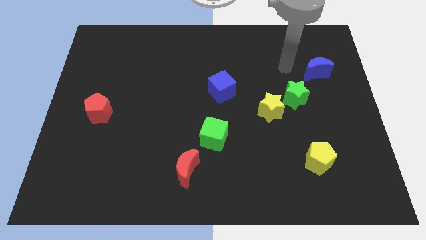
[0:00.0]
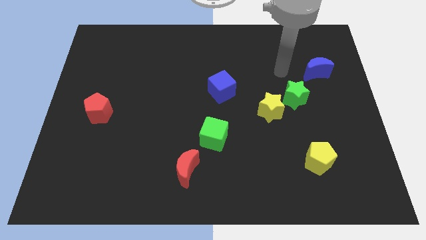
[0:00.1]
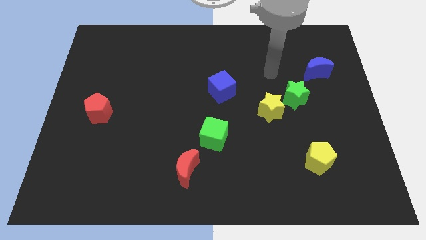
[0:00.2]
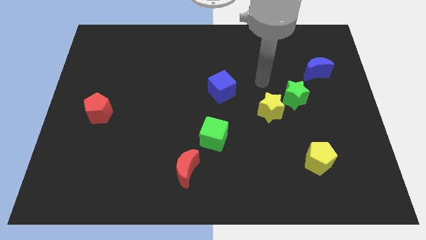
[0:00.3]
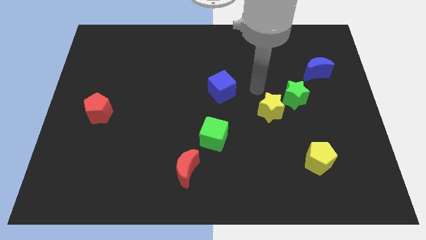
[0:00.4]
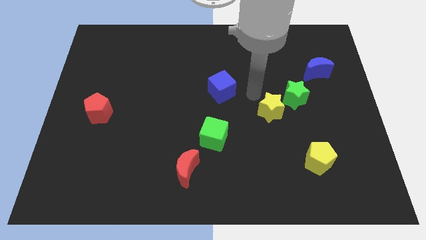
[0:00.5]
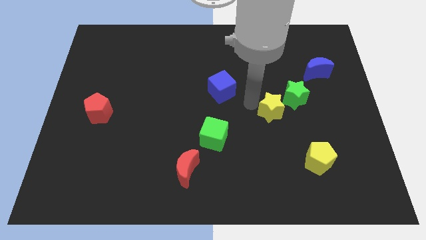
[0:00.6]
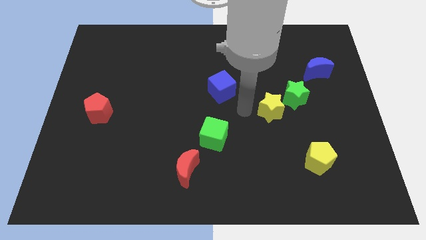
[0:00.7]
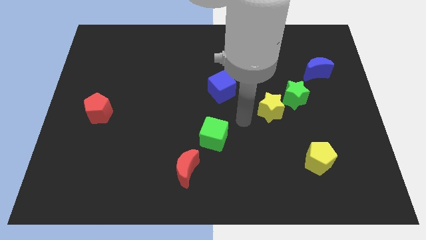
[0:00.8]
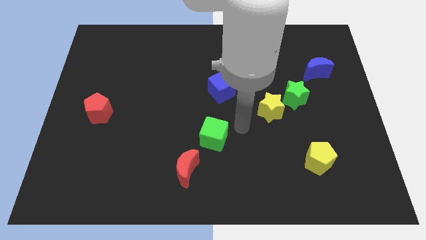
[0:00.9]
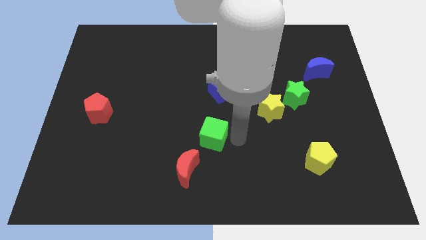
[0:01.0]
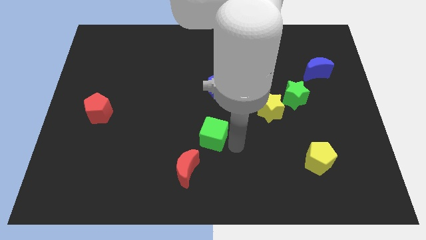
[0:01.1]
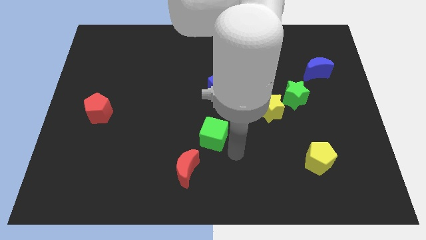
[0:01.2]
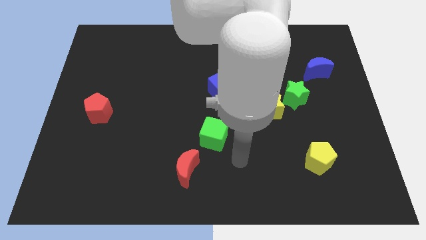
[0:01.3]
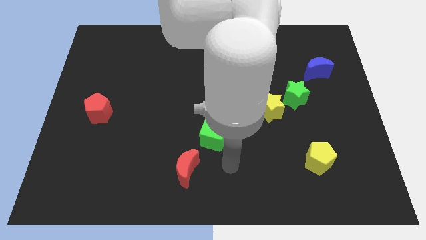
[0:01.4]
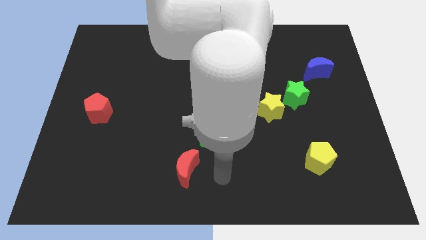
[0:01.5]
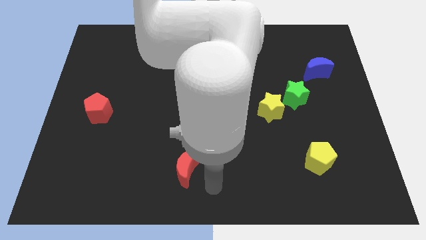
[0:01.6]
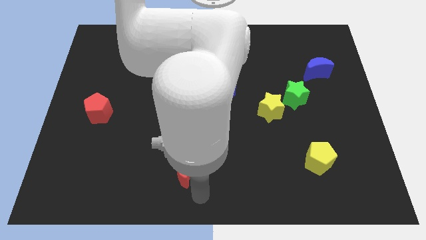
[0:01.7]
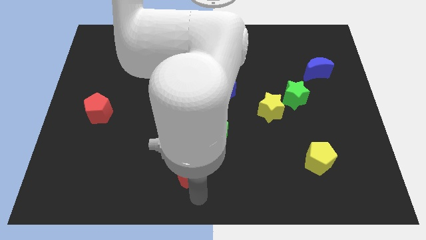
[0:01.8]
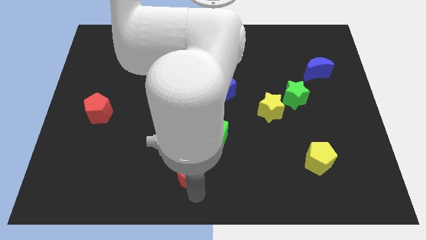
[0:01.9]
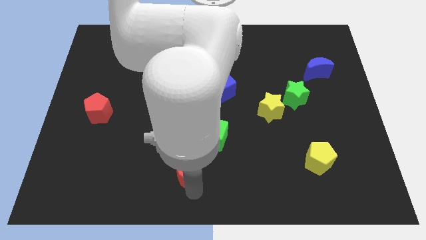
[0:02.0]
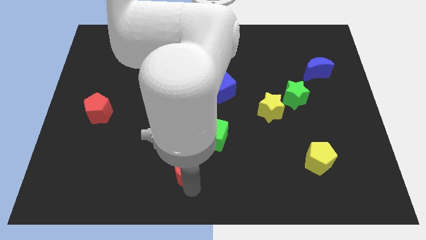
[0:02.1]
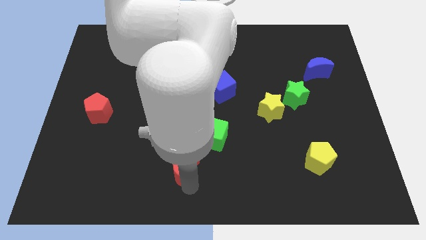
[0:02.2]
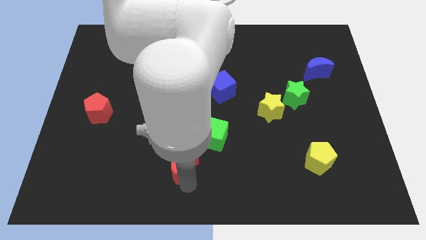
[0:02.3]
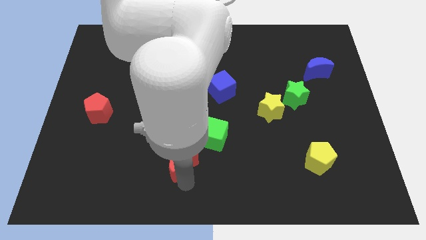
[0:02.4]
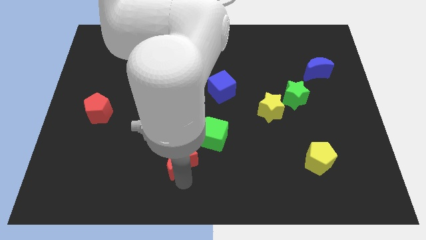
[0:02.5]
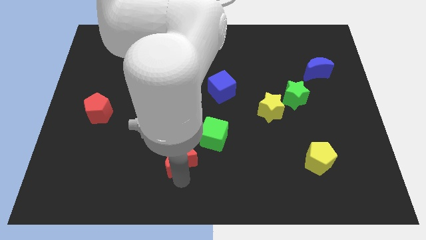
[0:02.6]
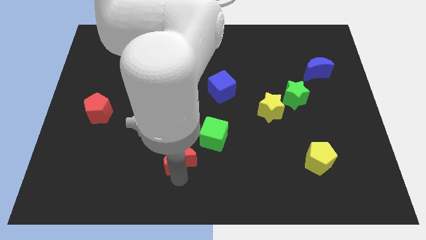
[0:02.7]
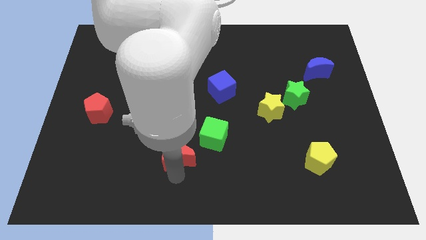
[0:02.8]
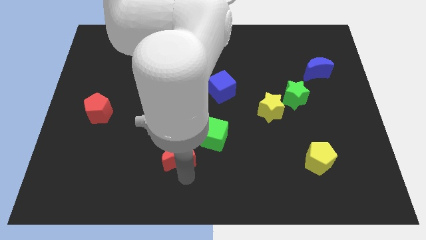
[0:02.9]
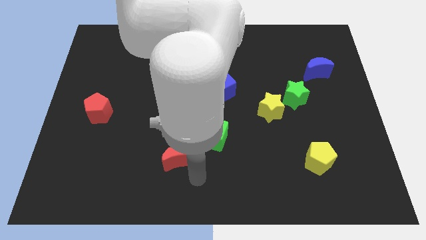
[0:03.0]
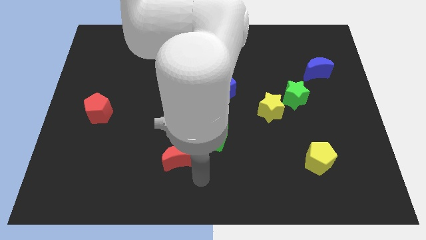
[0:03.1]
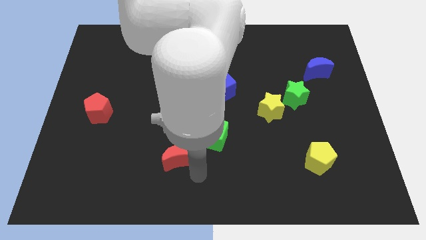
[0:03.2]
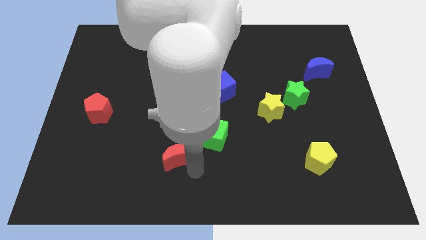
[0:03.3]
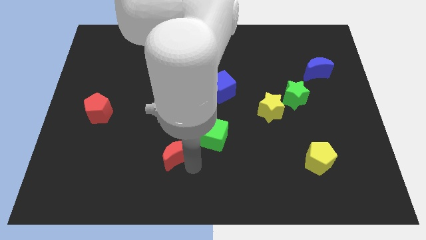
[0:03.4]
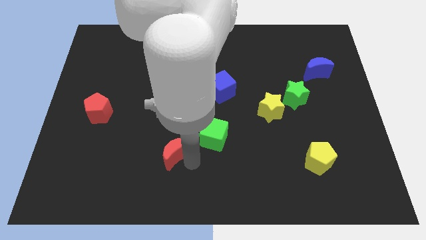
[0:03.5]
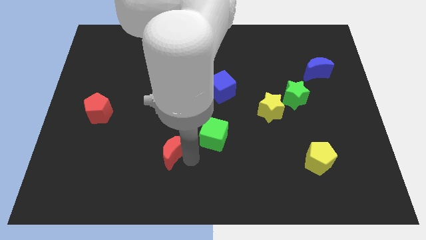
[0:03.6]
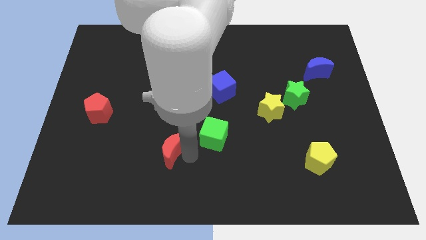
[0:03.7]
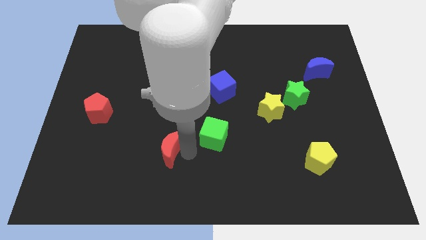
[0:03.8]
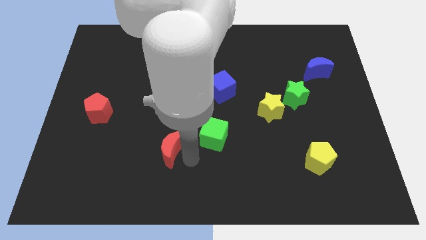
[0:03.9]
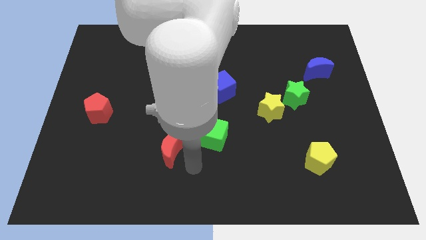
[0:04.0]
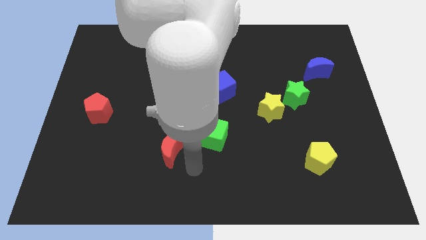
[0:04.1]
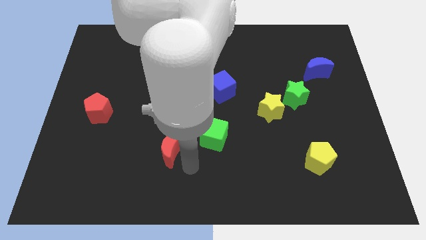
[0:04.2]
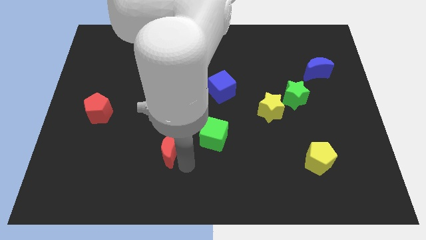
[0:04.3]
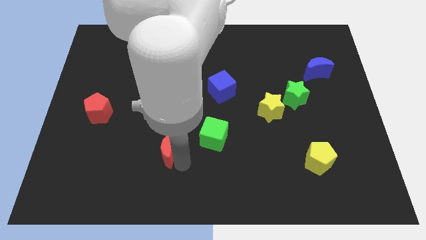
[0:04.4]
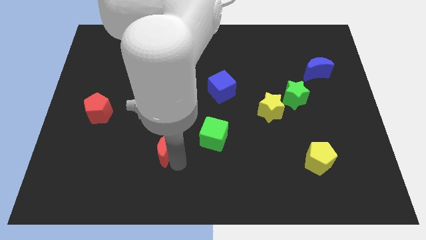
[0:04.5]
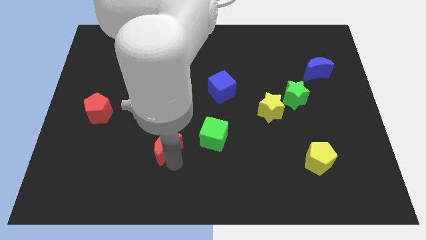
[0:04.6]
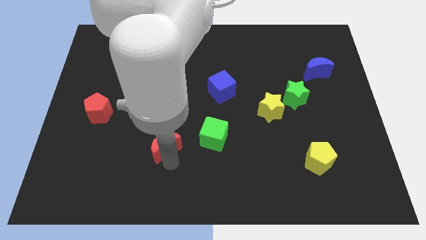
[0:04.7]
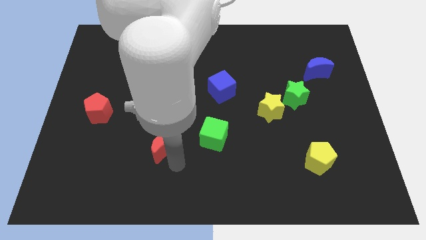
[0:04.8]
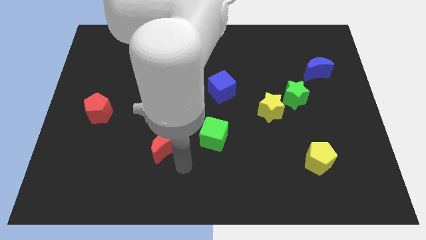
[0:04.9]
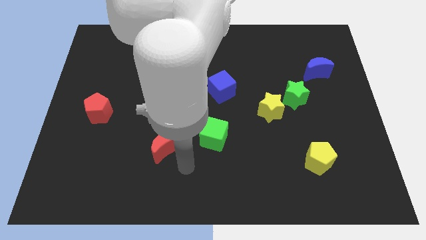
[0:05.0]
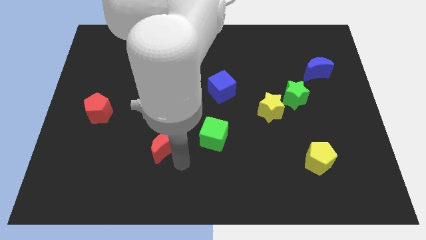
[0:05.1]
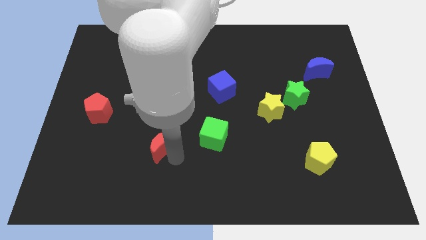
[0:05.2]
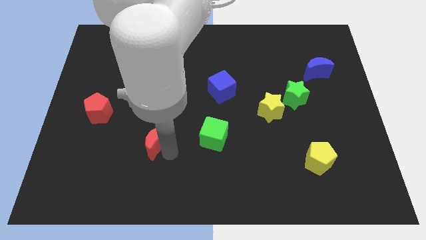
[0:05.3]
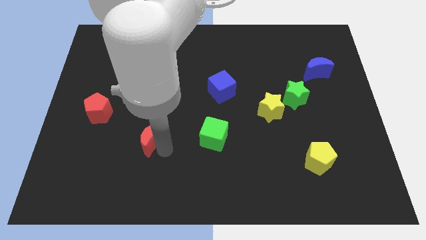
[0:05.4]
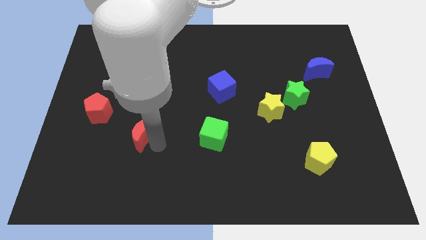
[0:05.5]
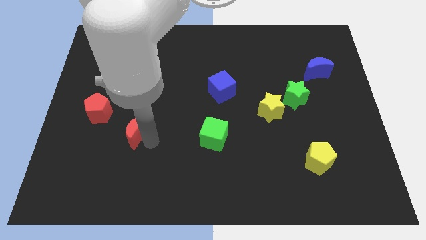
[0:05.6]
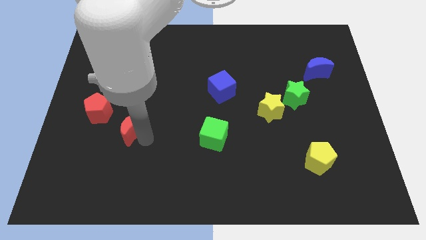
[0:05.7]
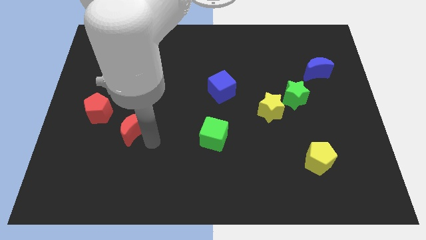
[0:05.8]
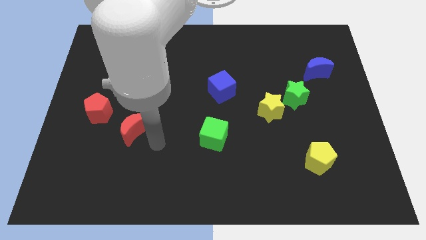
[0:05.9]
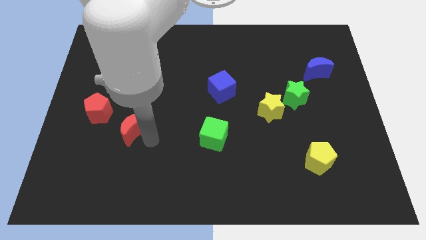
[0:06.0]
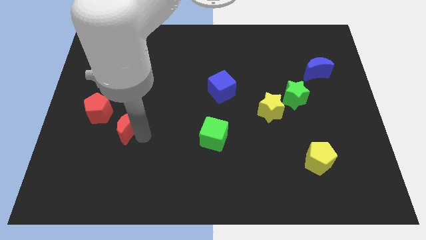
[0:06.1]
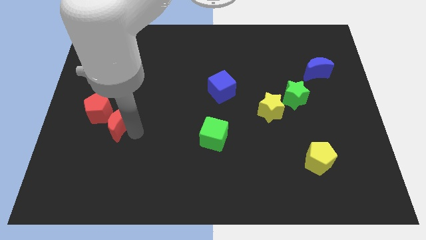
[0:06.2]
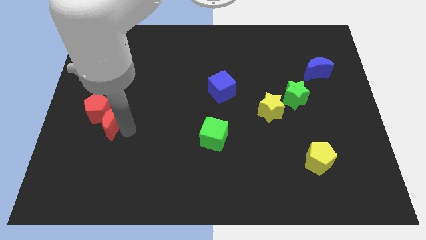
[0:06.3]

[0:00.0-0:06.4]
slide the red moon towards the red pentagon

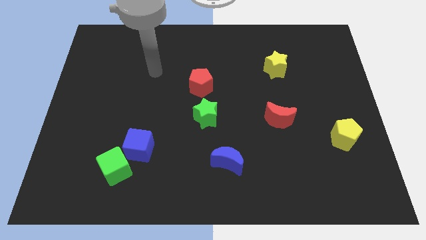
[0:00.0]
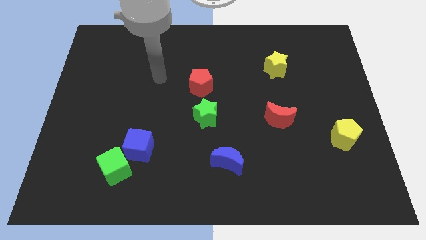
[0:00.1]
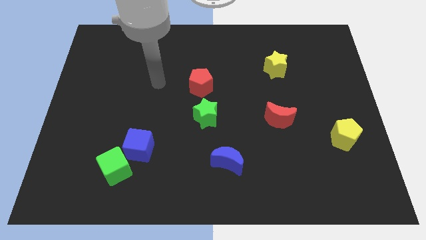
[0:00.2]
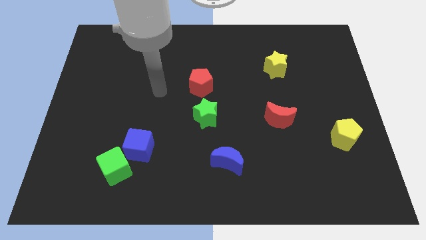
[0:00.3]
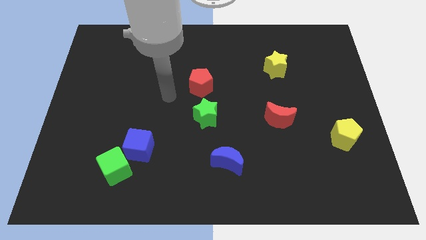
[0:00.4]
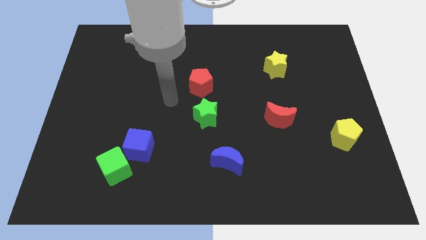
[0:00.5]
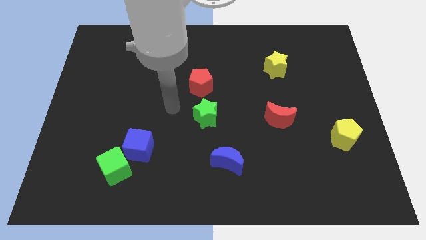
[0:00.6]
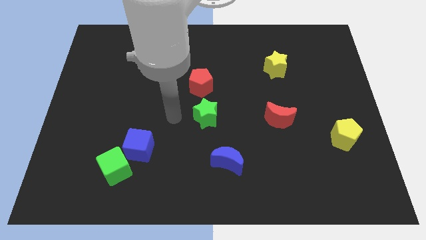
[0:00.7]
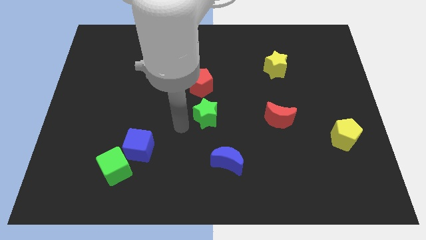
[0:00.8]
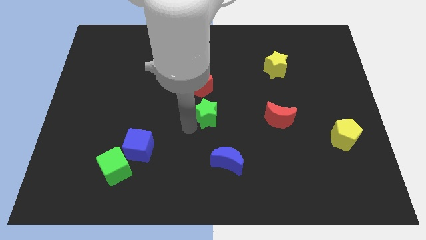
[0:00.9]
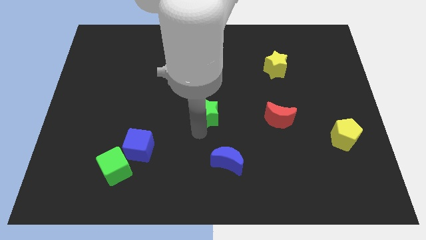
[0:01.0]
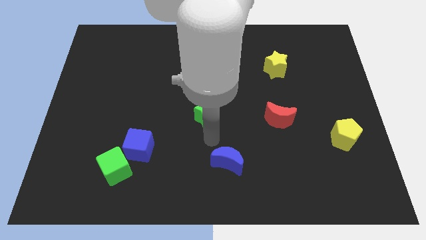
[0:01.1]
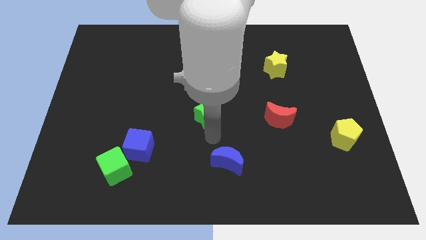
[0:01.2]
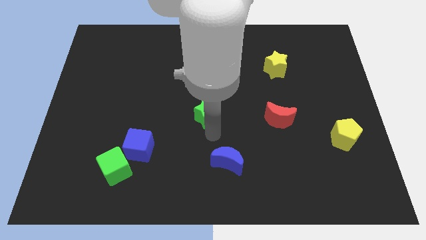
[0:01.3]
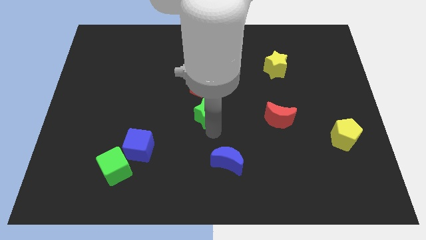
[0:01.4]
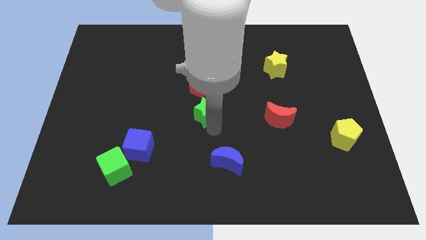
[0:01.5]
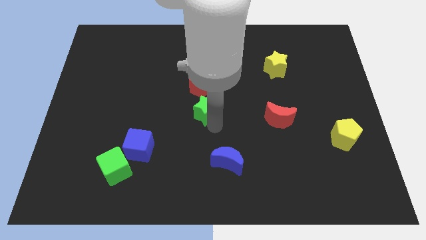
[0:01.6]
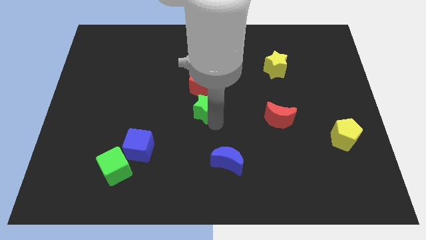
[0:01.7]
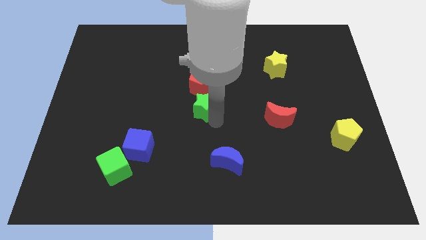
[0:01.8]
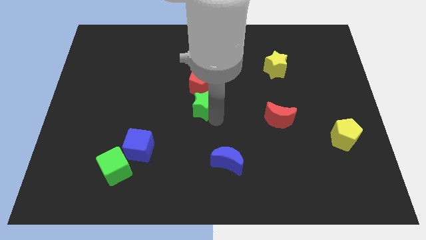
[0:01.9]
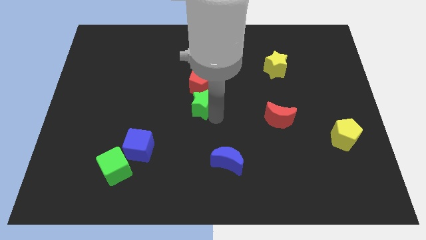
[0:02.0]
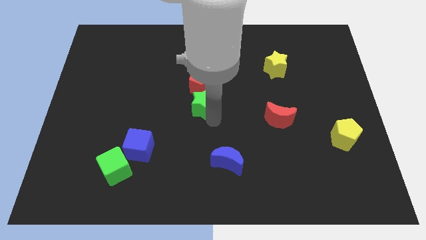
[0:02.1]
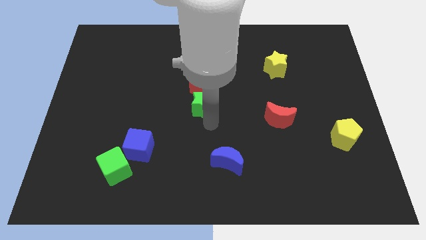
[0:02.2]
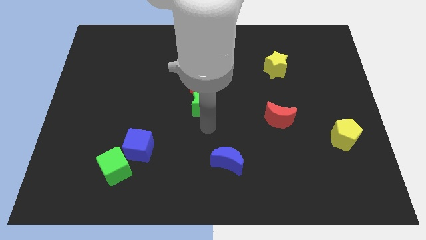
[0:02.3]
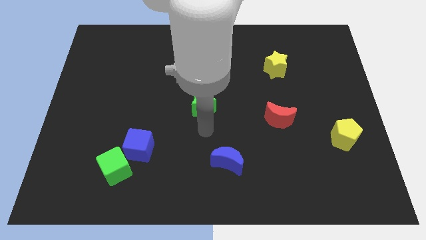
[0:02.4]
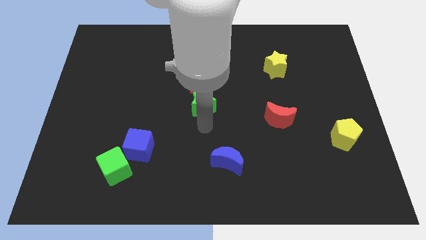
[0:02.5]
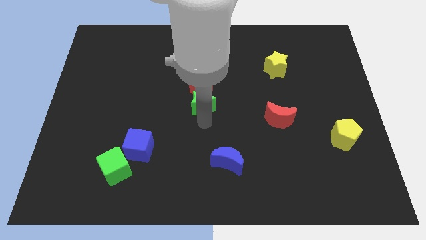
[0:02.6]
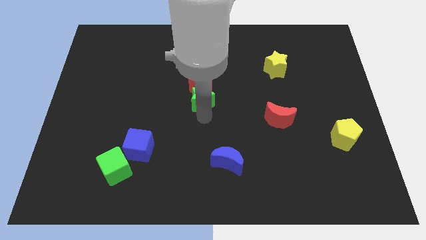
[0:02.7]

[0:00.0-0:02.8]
push the green star towards the red pentagon
